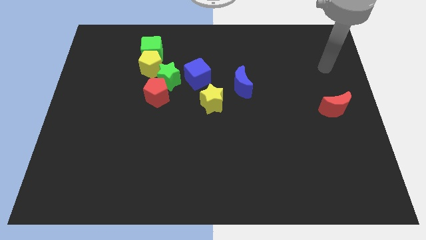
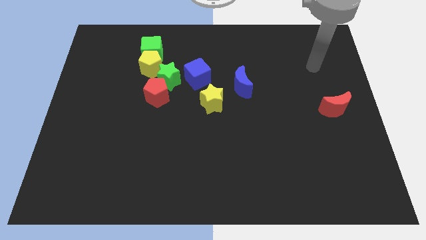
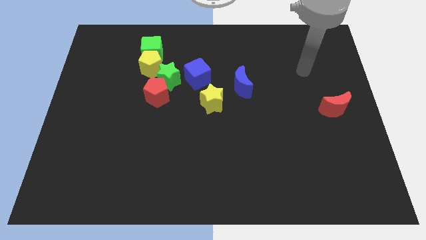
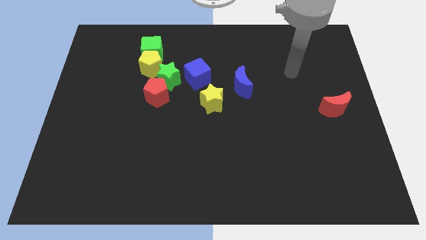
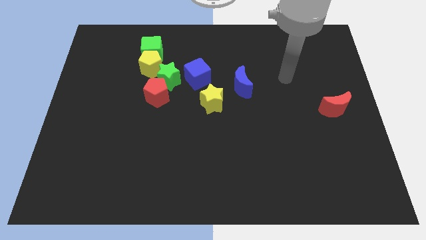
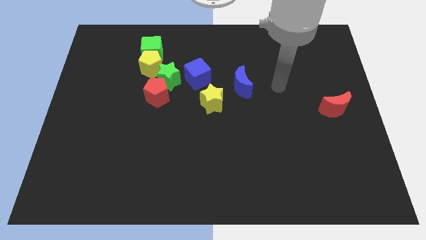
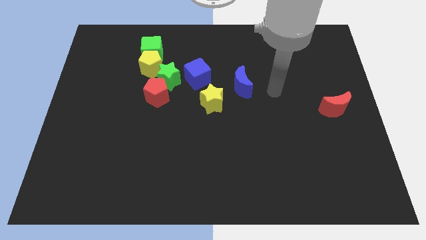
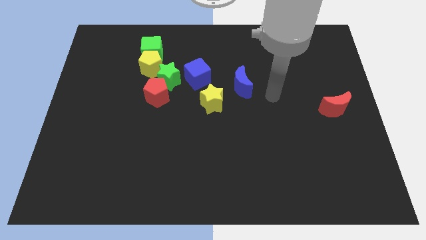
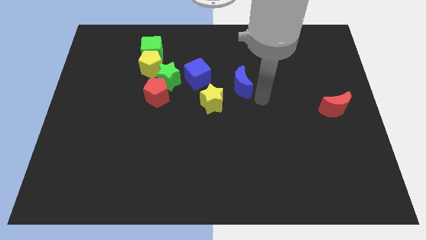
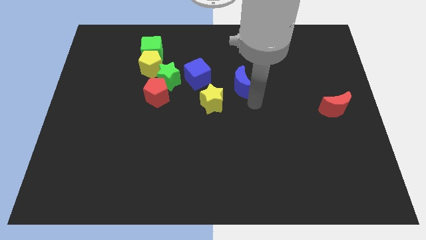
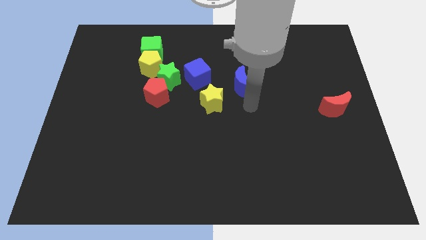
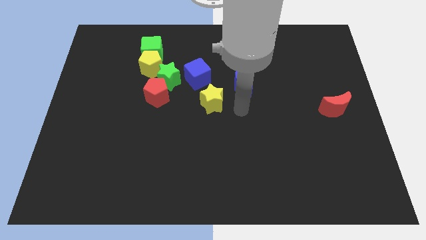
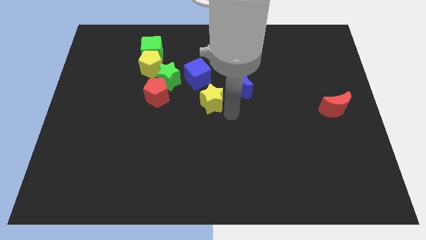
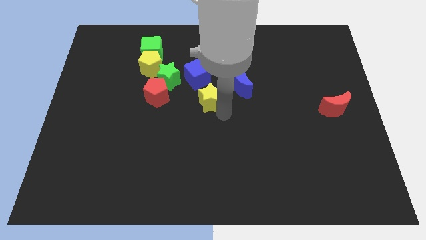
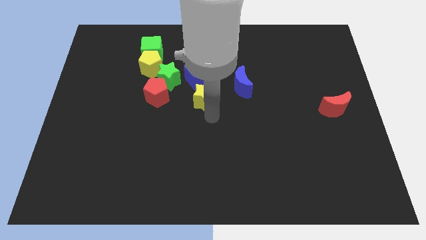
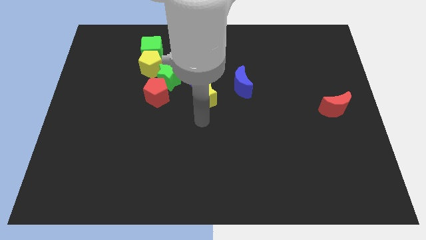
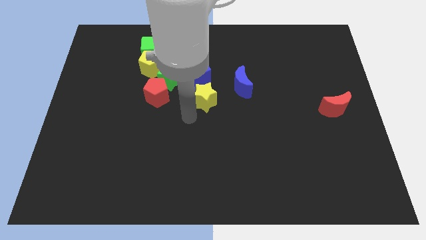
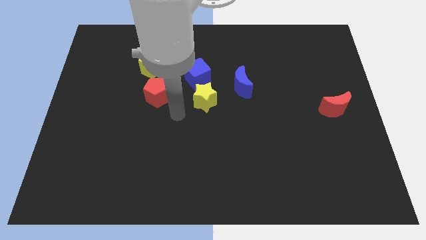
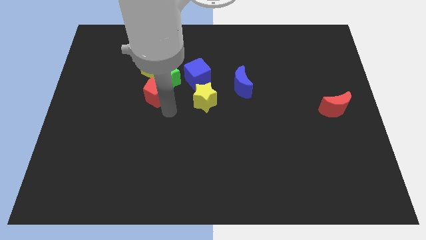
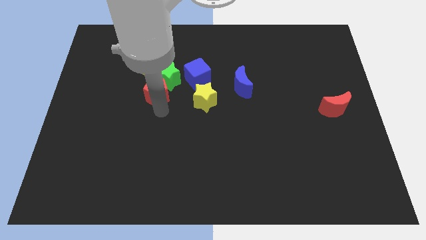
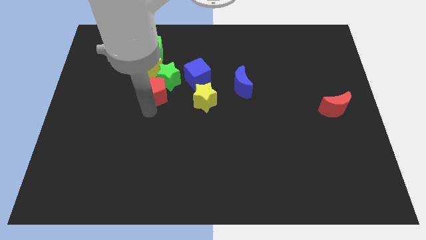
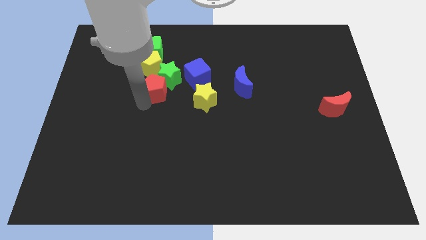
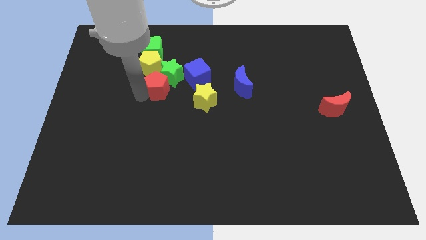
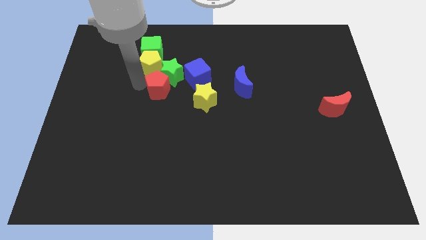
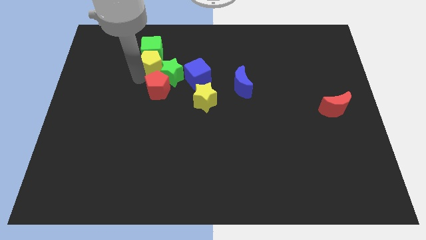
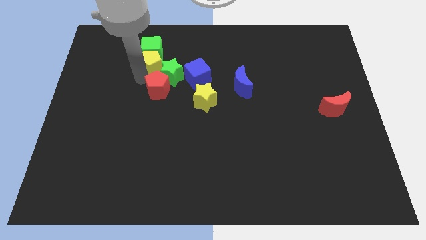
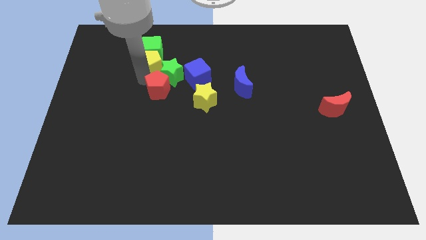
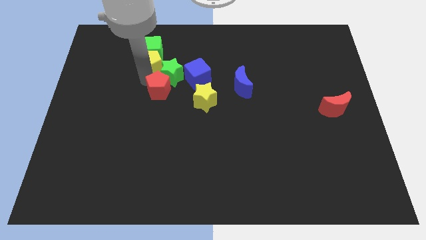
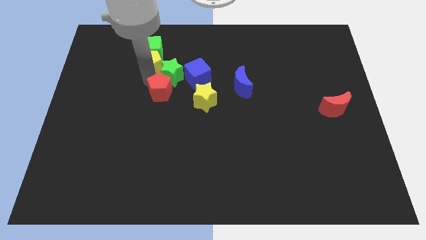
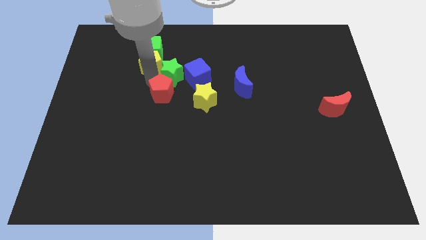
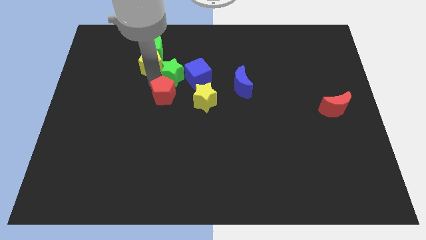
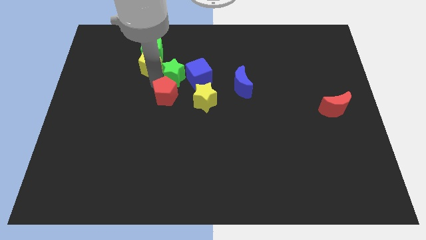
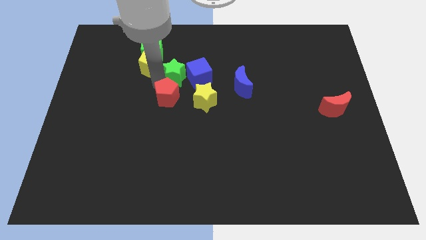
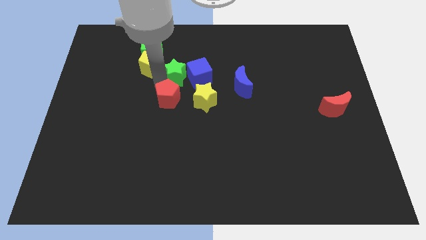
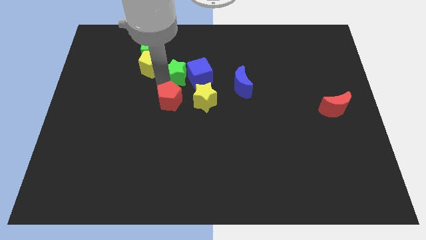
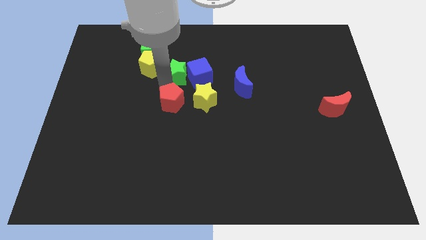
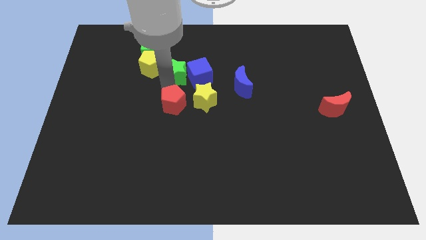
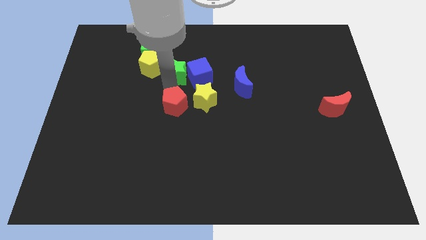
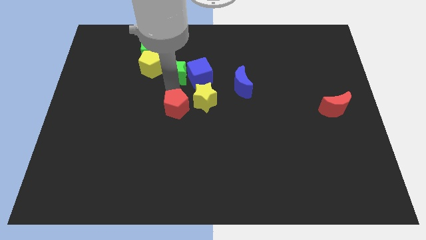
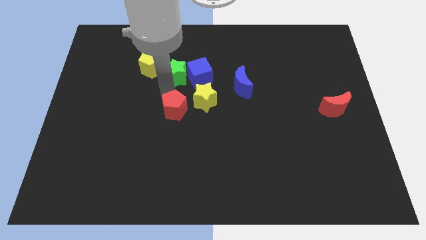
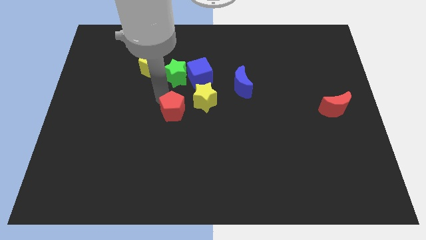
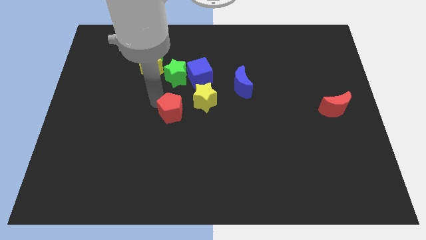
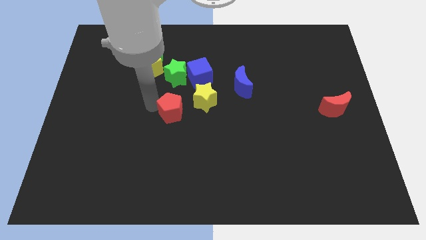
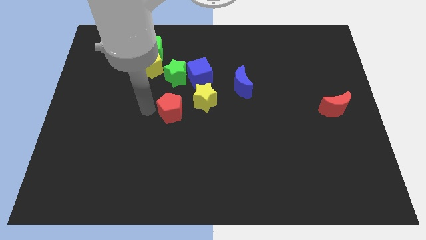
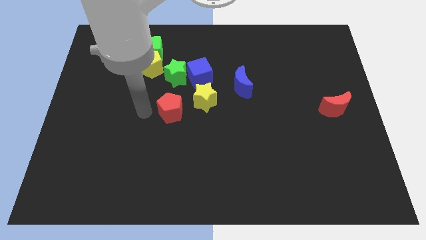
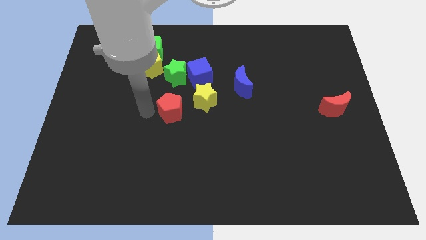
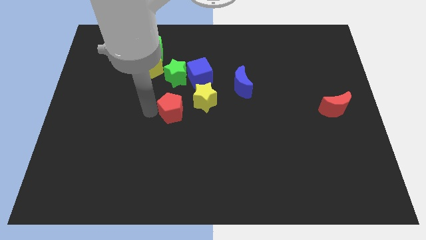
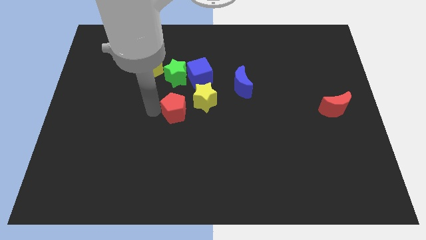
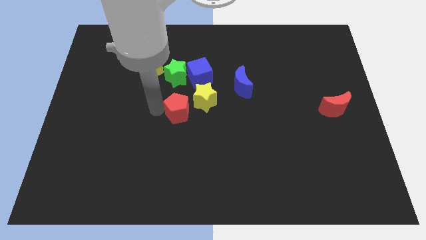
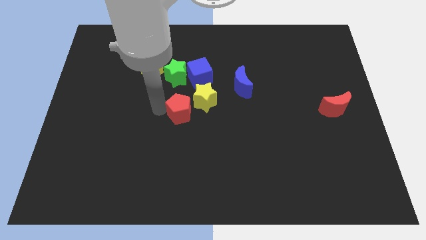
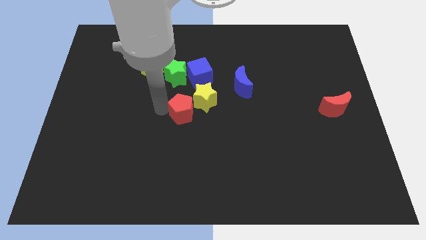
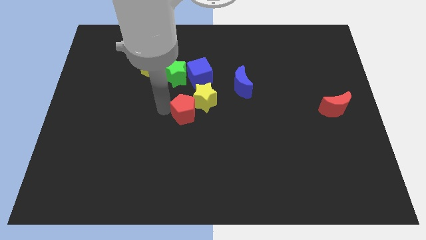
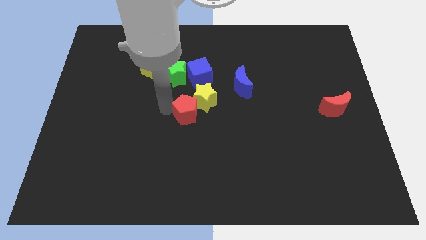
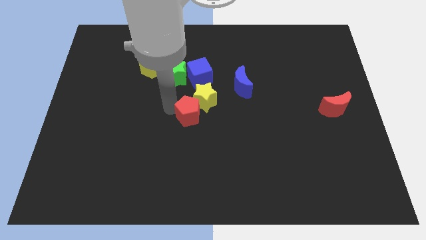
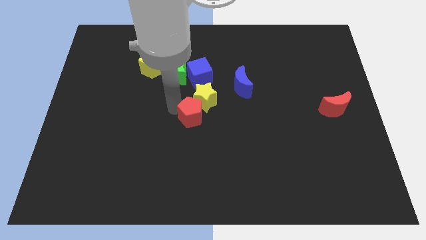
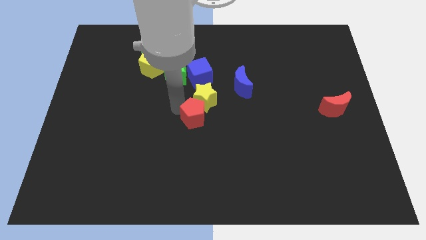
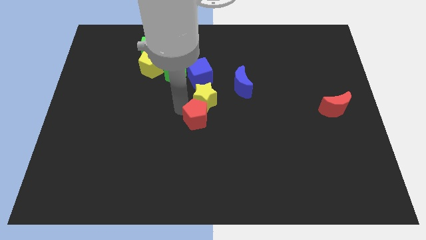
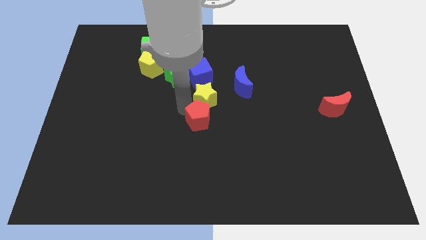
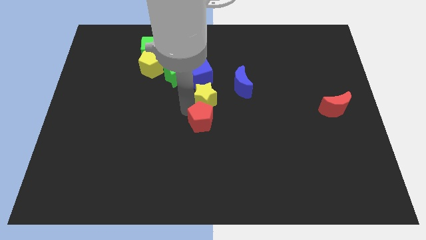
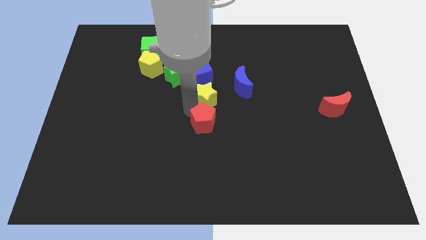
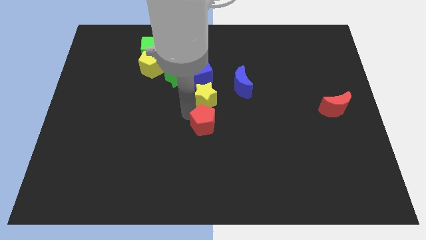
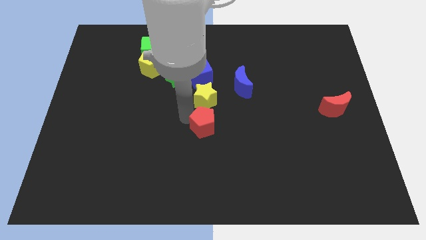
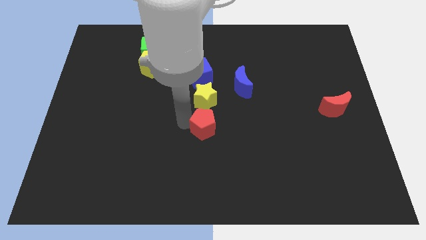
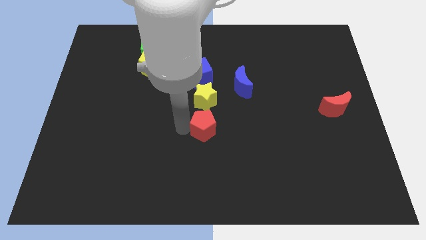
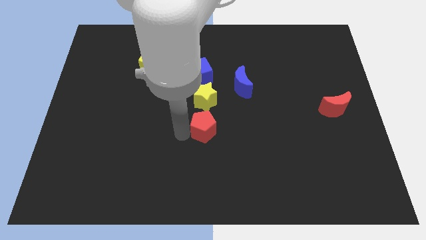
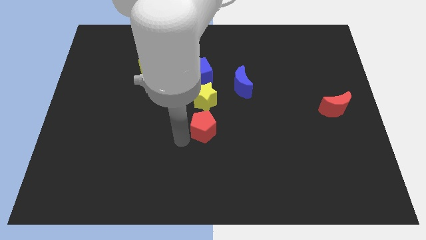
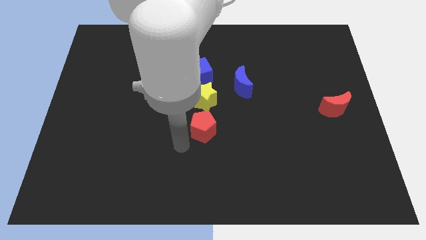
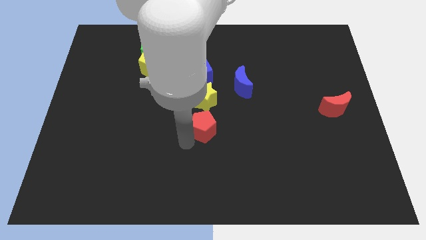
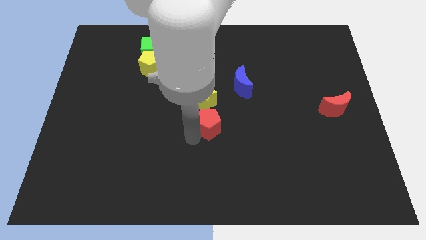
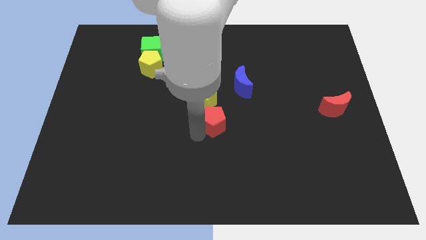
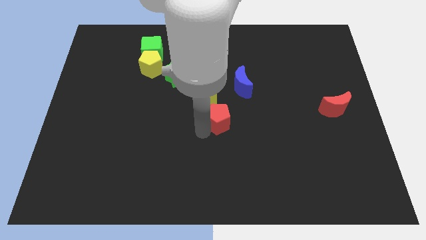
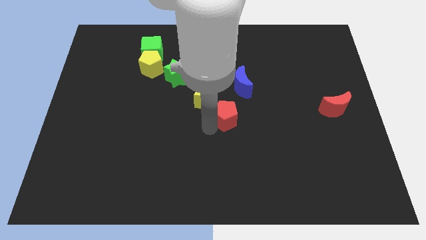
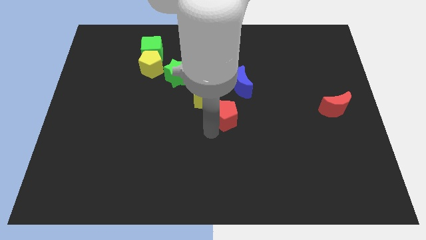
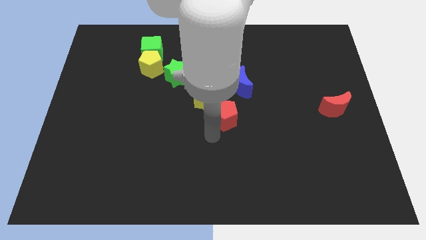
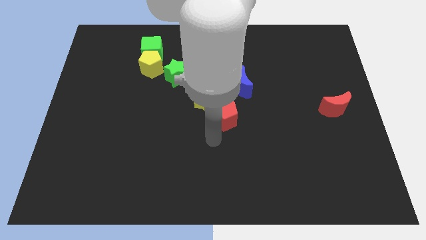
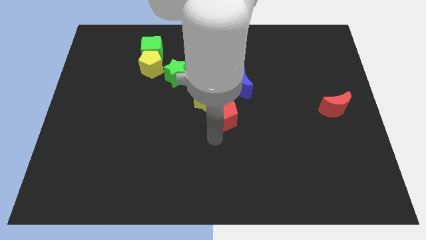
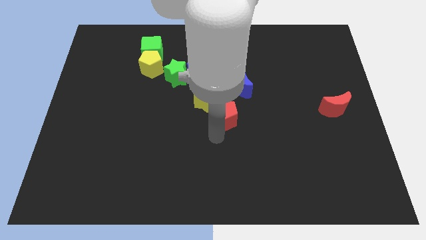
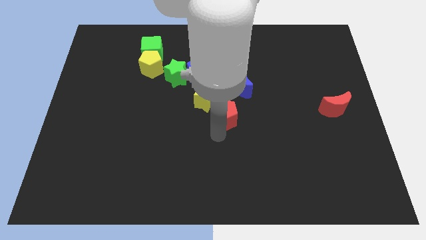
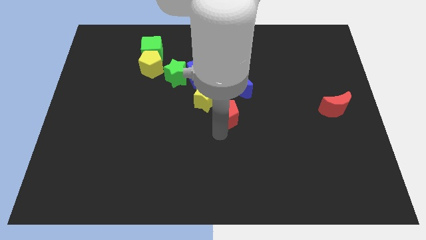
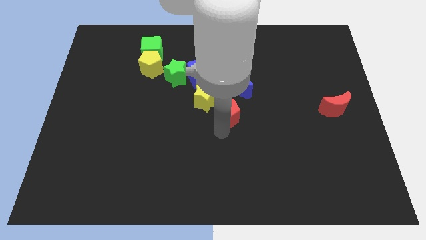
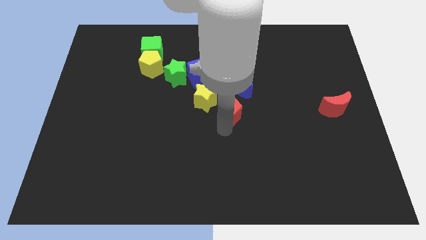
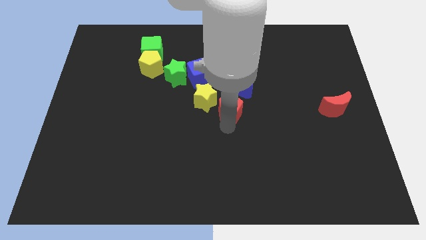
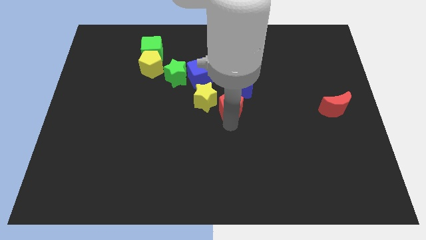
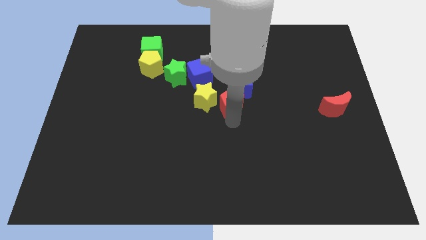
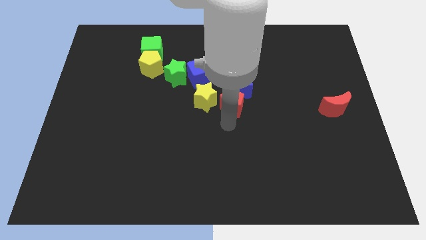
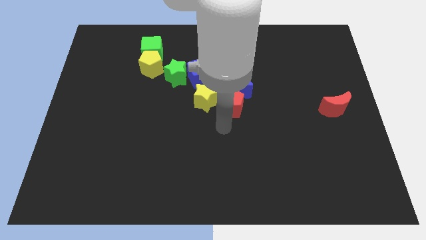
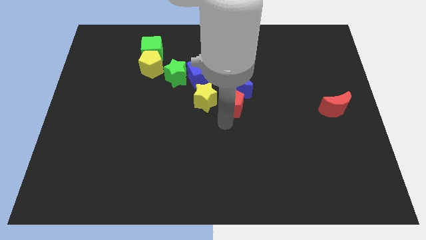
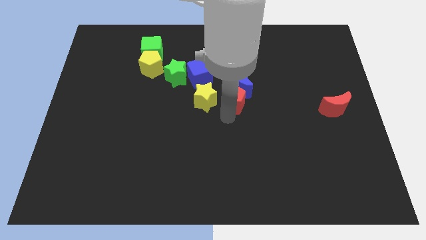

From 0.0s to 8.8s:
push the red pentagon towards the blue moon
